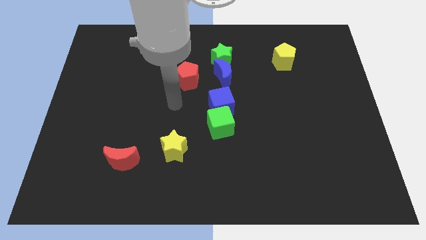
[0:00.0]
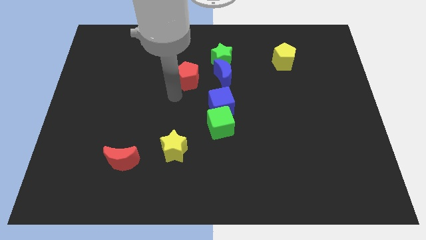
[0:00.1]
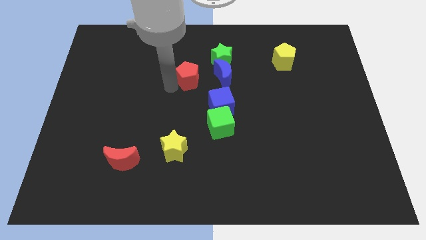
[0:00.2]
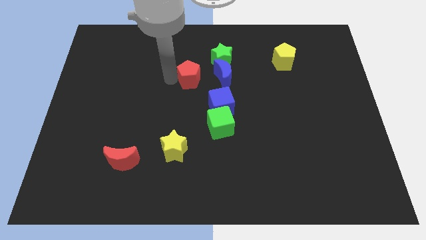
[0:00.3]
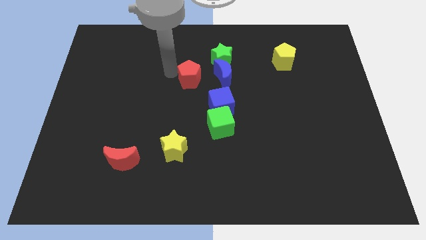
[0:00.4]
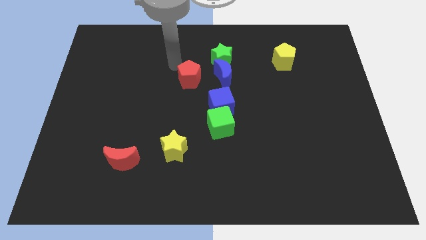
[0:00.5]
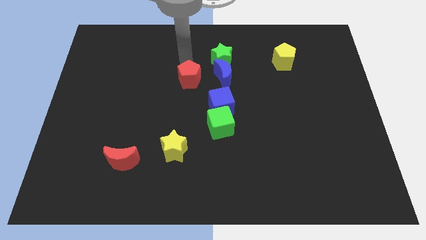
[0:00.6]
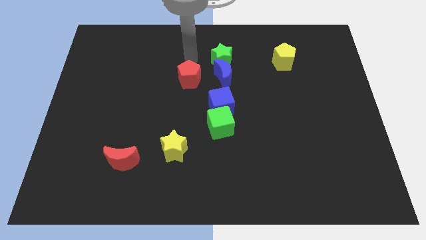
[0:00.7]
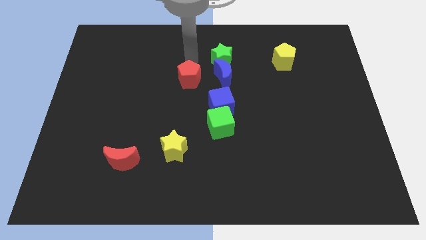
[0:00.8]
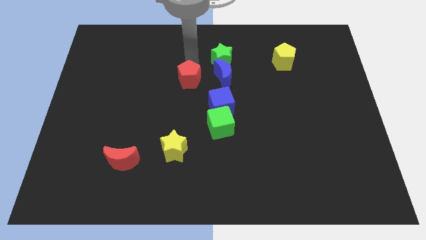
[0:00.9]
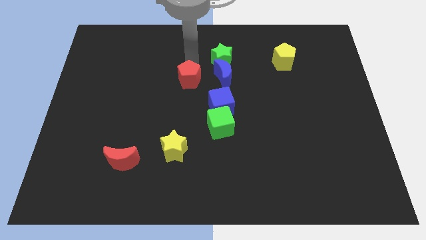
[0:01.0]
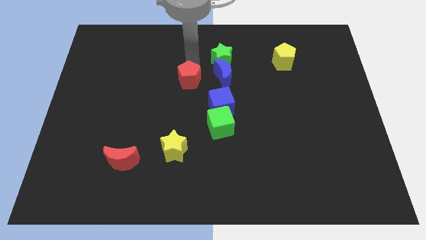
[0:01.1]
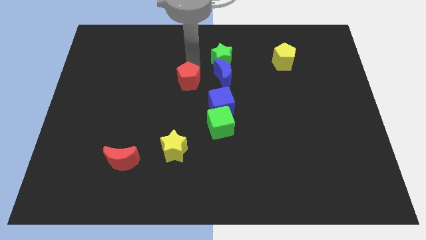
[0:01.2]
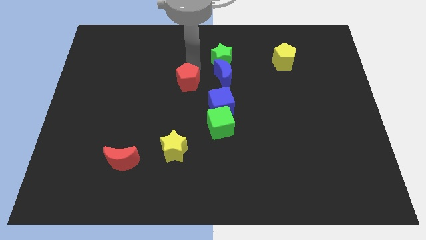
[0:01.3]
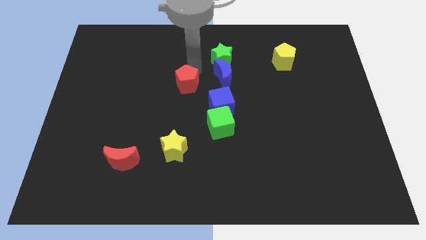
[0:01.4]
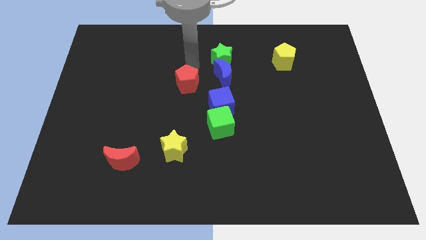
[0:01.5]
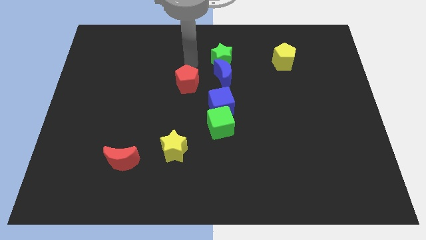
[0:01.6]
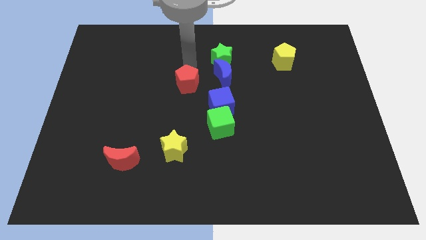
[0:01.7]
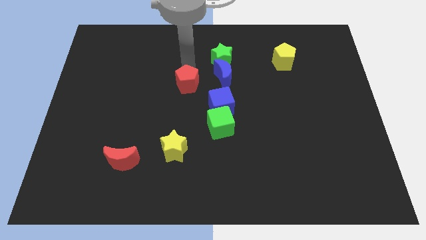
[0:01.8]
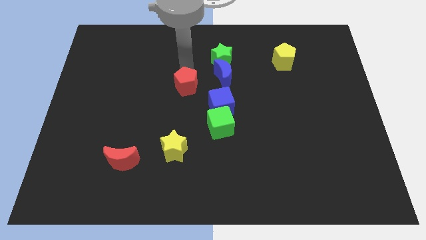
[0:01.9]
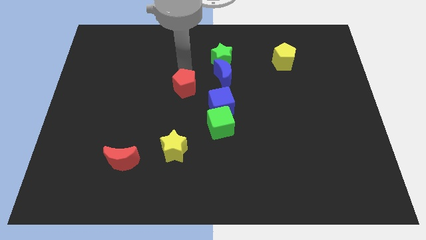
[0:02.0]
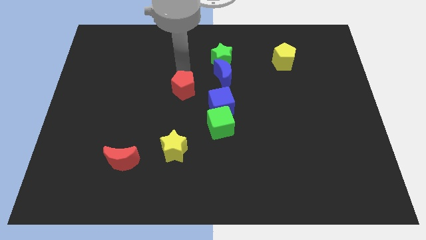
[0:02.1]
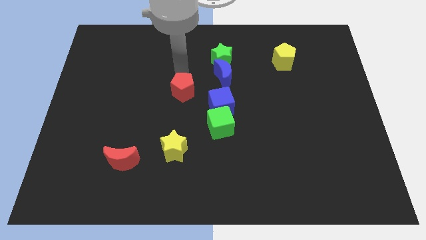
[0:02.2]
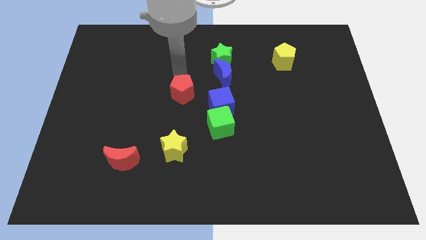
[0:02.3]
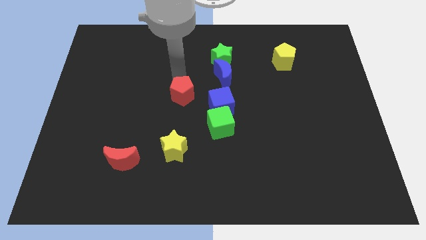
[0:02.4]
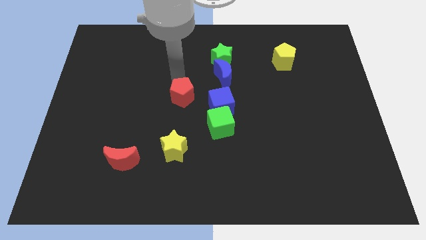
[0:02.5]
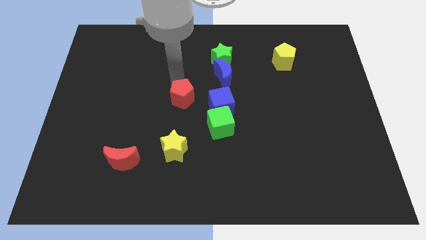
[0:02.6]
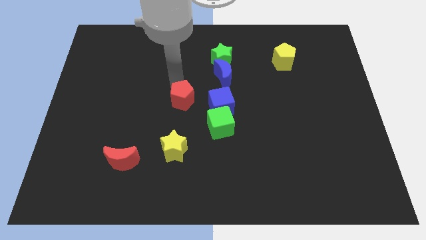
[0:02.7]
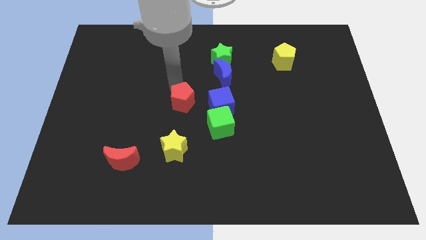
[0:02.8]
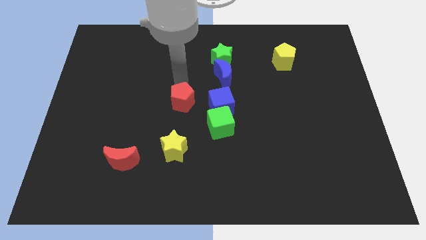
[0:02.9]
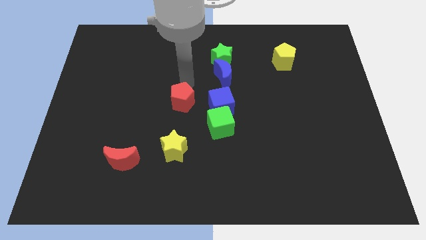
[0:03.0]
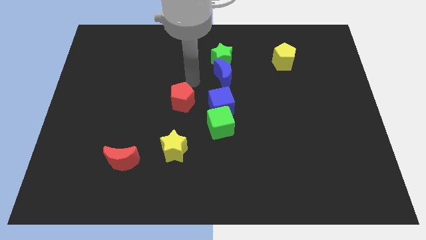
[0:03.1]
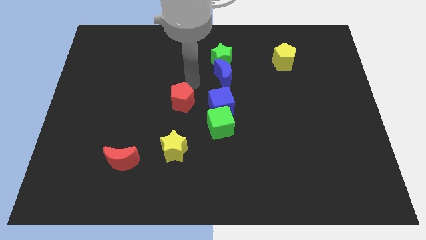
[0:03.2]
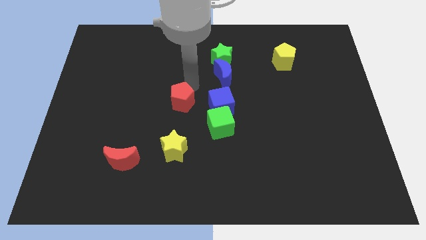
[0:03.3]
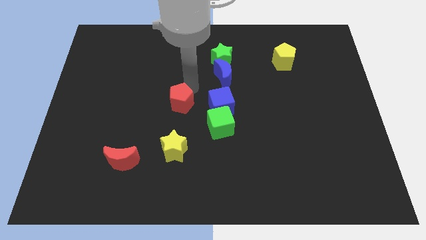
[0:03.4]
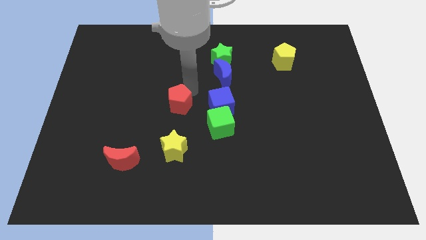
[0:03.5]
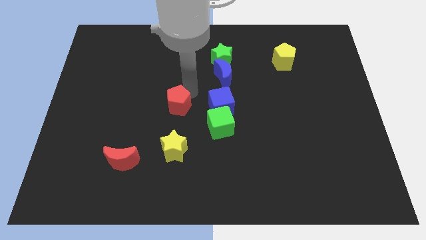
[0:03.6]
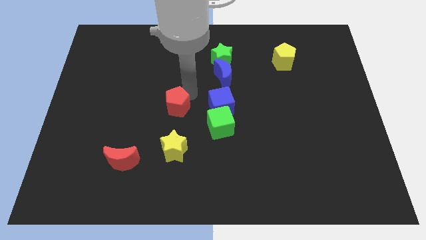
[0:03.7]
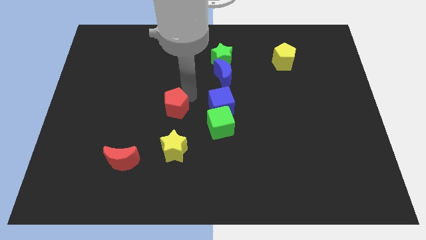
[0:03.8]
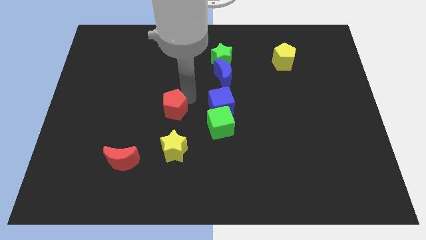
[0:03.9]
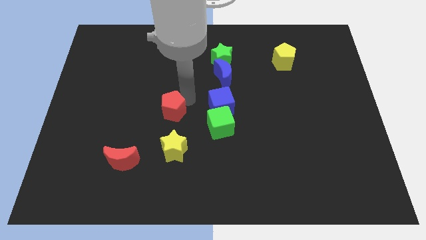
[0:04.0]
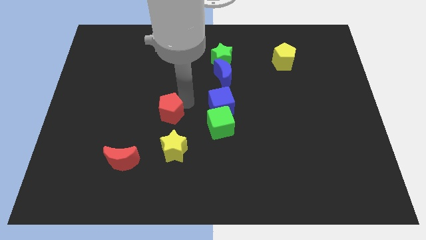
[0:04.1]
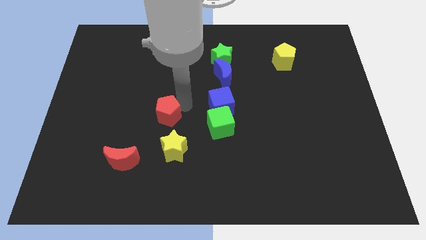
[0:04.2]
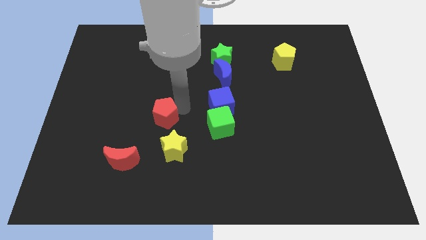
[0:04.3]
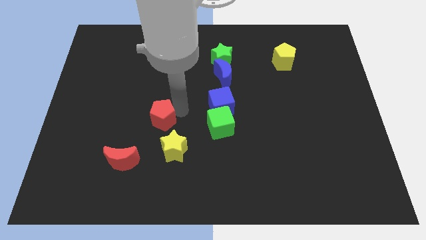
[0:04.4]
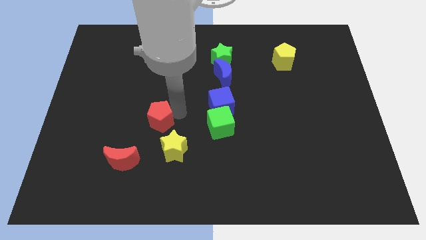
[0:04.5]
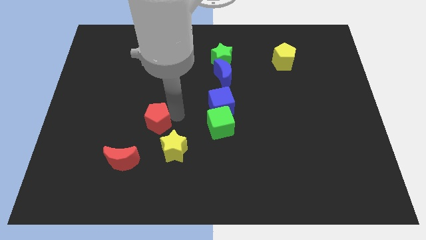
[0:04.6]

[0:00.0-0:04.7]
put the red pentagon diagonally up and to the right of the red moon

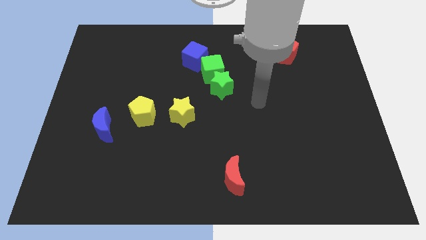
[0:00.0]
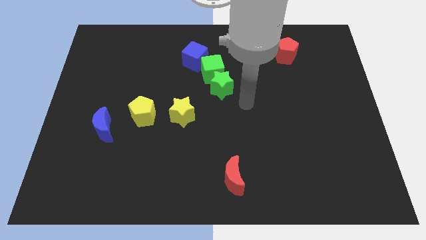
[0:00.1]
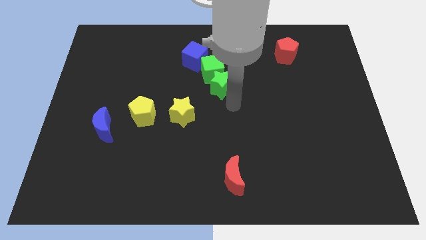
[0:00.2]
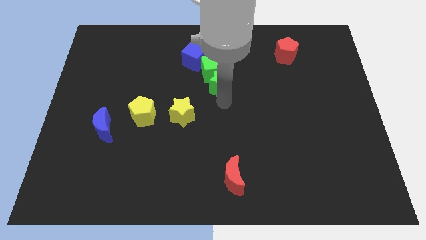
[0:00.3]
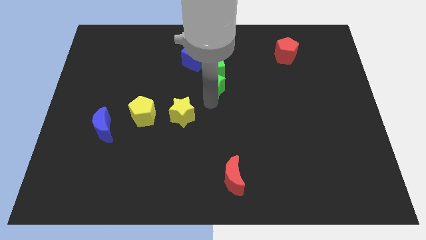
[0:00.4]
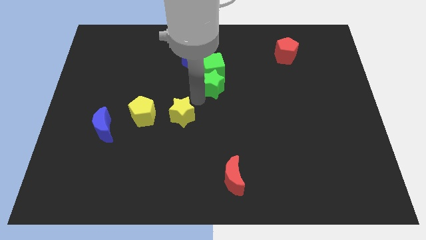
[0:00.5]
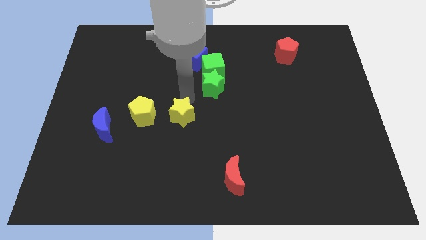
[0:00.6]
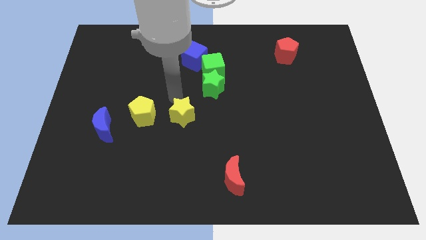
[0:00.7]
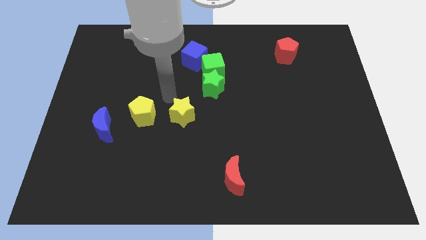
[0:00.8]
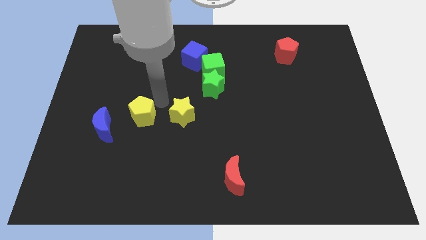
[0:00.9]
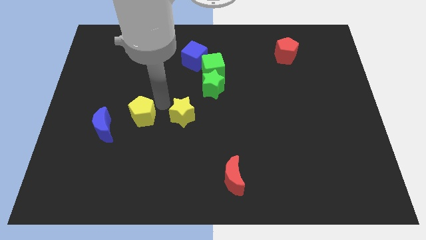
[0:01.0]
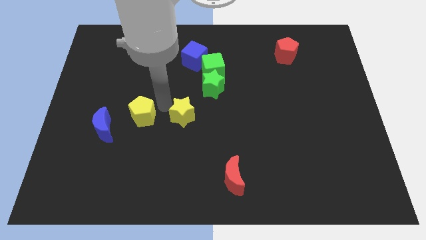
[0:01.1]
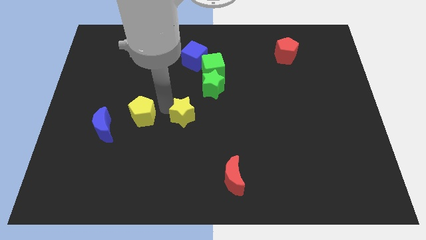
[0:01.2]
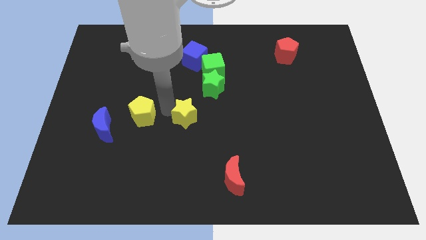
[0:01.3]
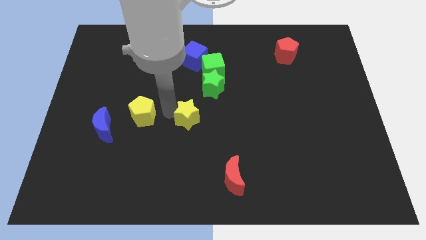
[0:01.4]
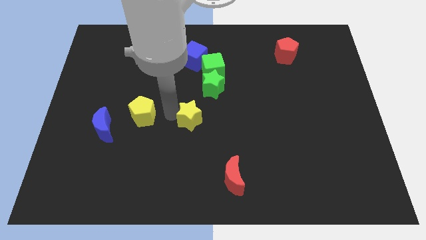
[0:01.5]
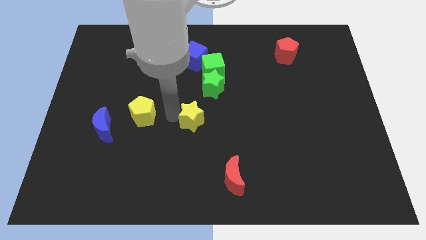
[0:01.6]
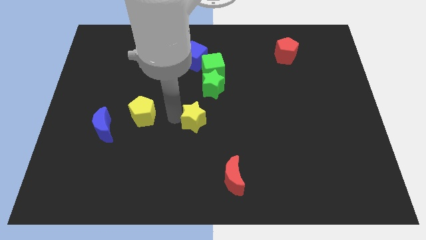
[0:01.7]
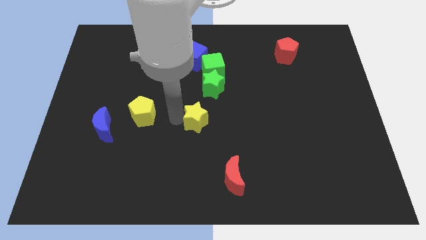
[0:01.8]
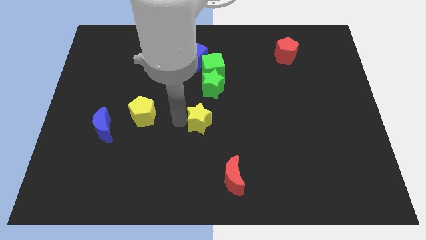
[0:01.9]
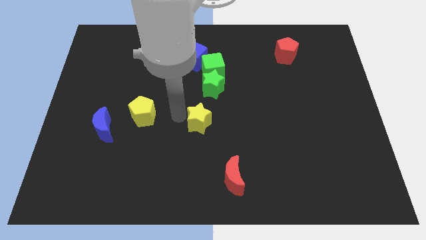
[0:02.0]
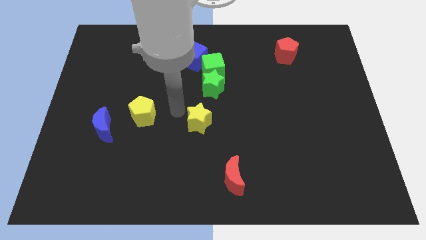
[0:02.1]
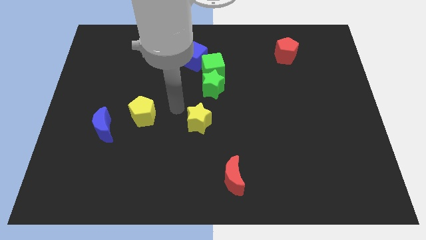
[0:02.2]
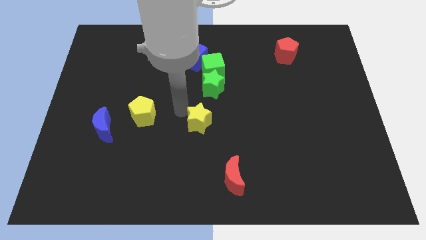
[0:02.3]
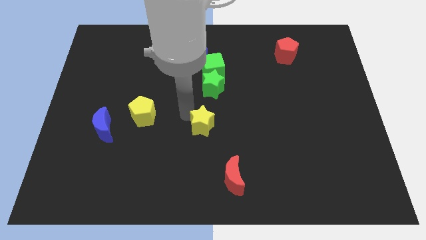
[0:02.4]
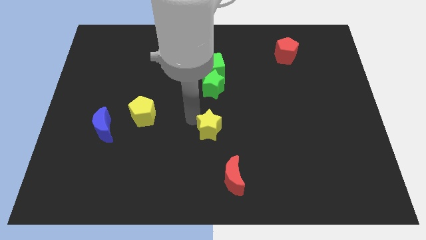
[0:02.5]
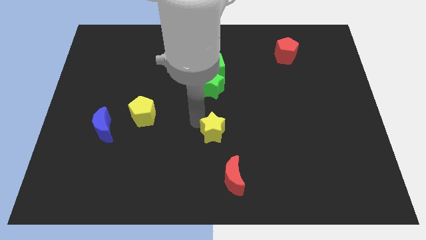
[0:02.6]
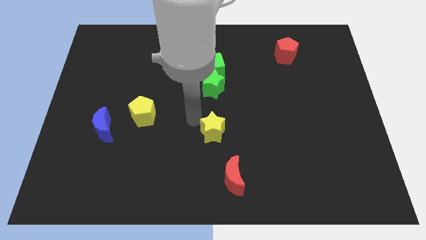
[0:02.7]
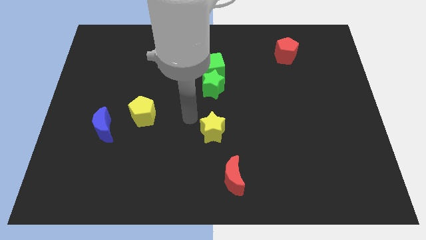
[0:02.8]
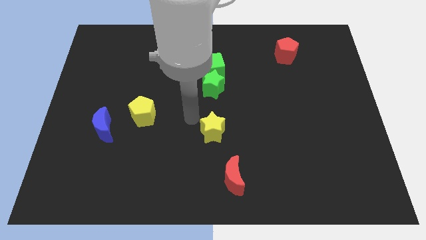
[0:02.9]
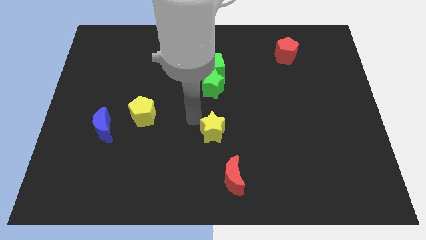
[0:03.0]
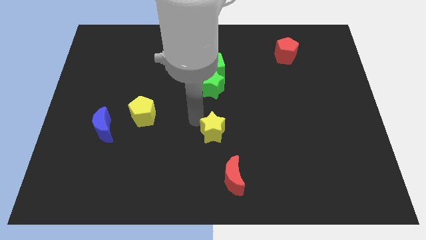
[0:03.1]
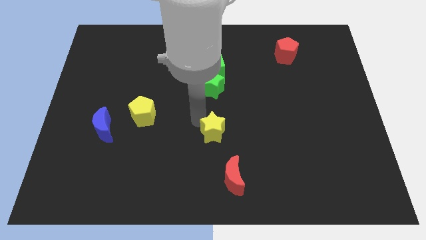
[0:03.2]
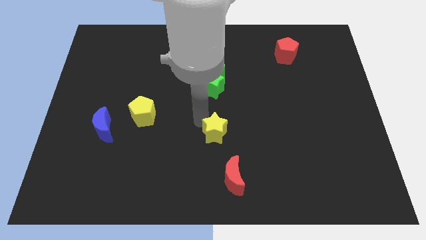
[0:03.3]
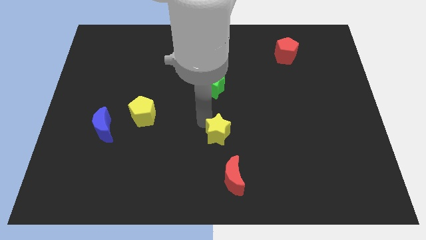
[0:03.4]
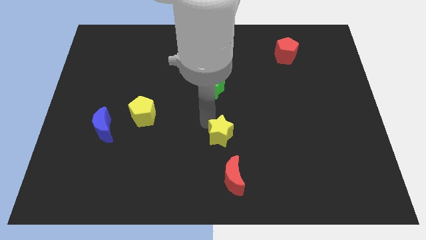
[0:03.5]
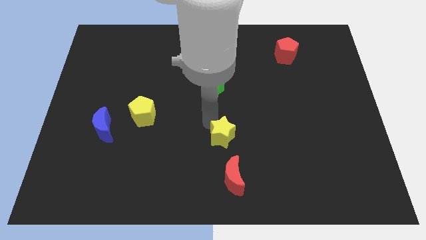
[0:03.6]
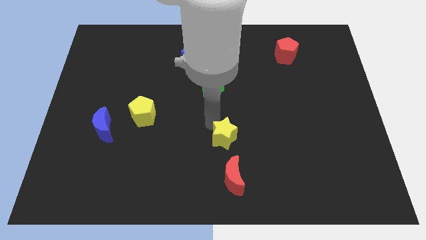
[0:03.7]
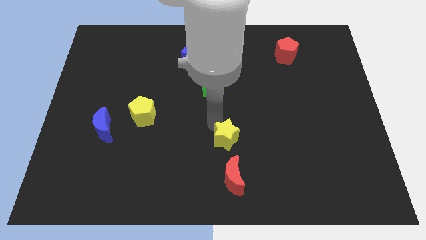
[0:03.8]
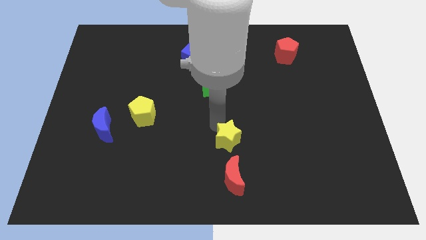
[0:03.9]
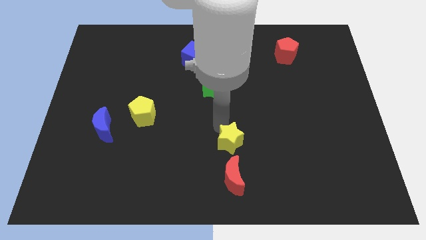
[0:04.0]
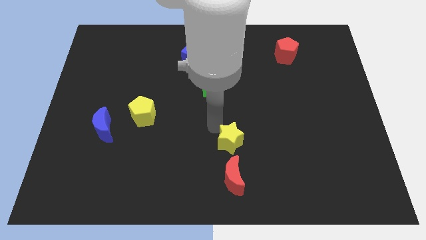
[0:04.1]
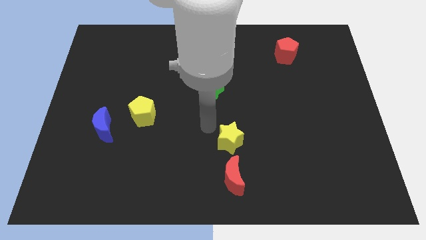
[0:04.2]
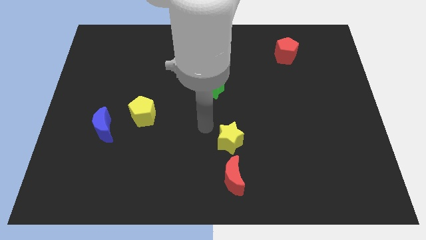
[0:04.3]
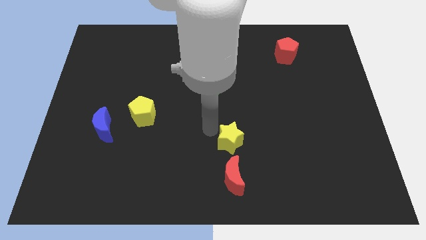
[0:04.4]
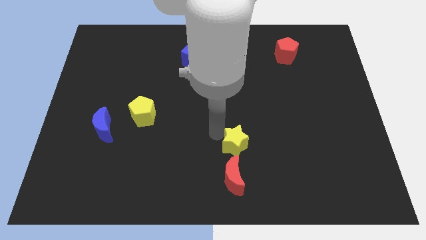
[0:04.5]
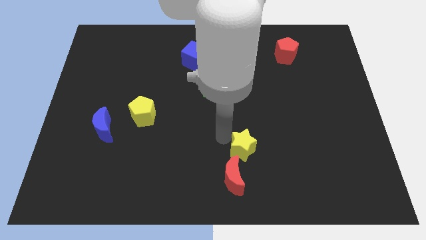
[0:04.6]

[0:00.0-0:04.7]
push the yellow star to the top right of the red moon
